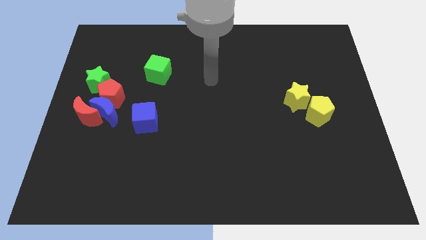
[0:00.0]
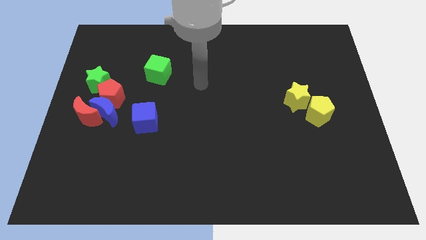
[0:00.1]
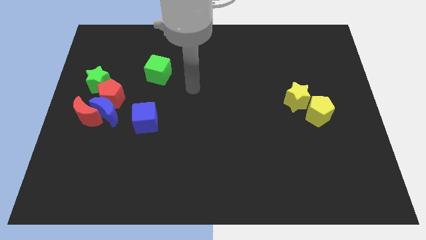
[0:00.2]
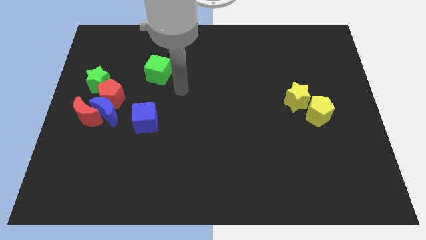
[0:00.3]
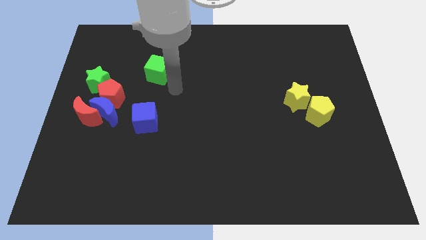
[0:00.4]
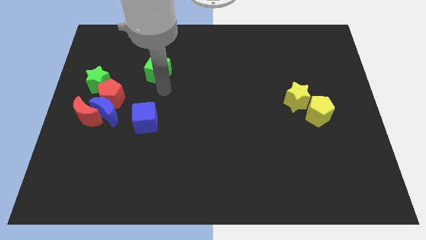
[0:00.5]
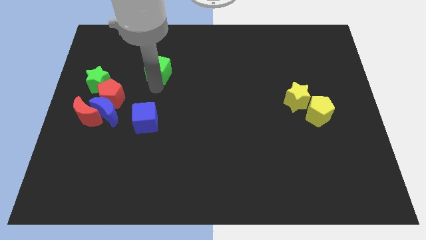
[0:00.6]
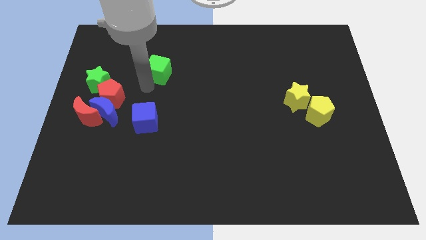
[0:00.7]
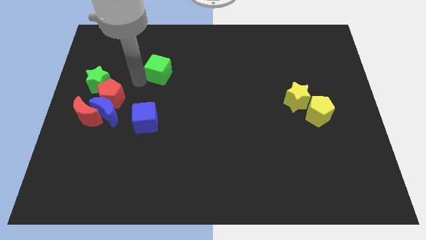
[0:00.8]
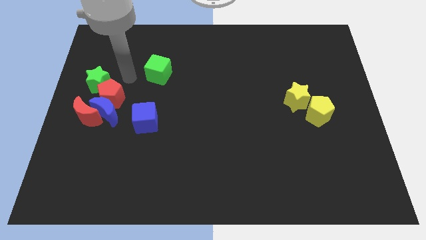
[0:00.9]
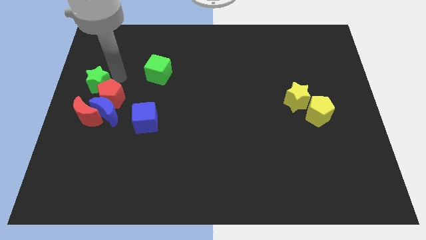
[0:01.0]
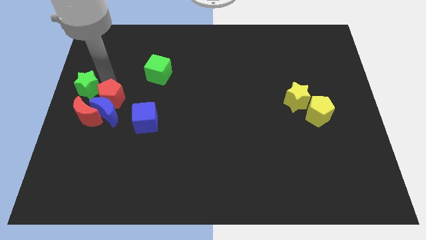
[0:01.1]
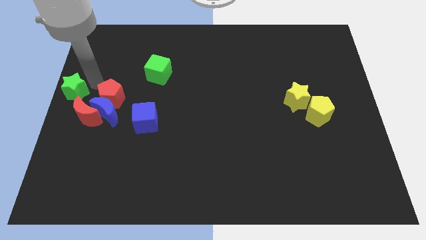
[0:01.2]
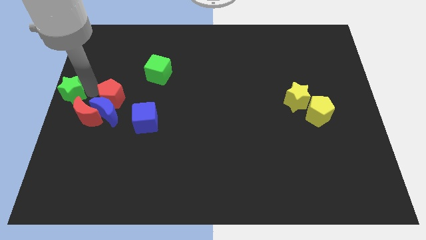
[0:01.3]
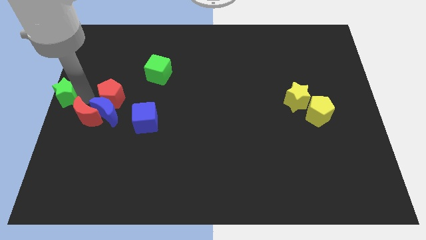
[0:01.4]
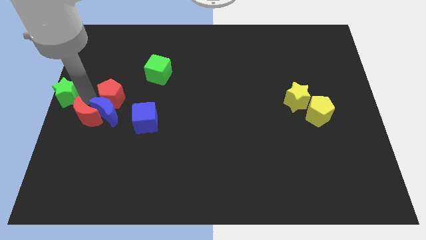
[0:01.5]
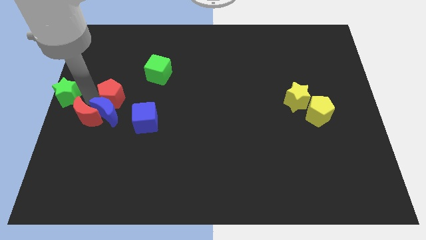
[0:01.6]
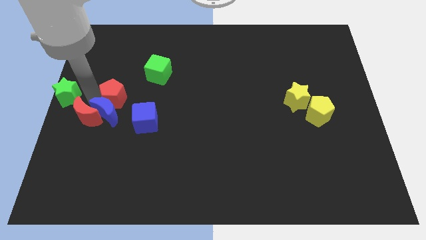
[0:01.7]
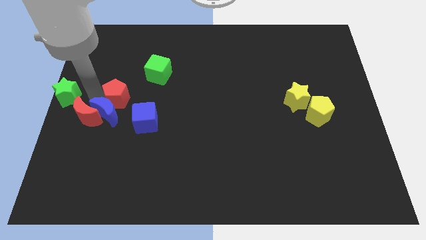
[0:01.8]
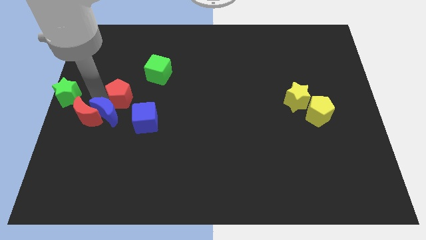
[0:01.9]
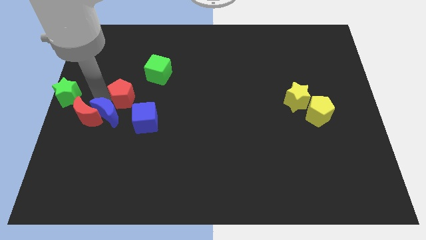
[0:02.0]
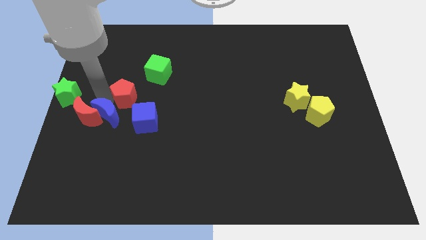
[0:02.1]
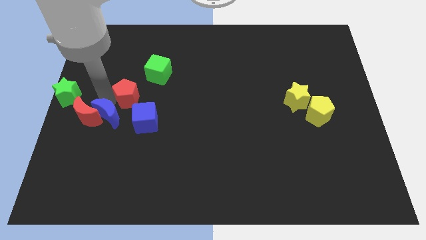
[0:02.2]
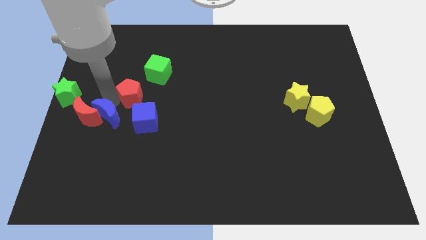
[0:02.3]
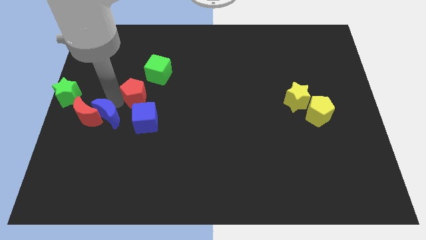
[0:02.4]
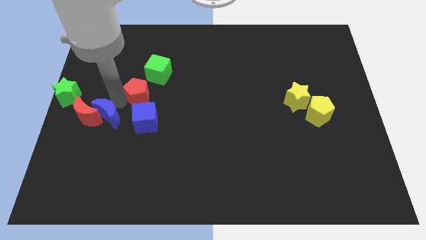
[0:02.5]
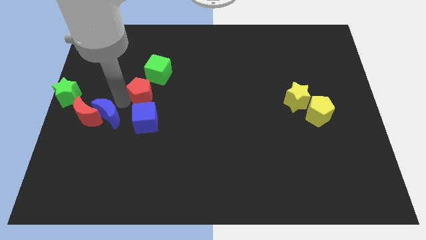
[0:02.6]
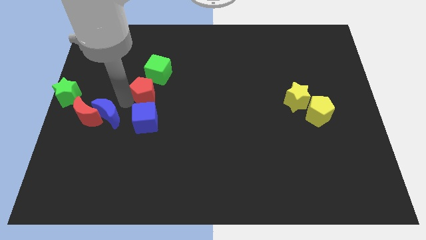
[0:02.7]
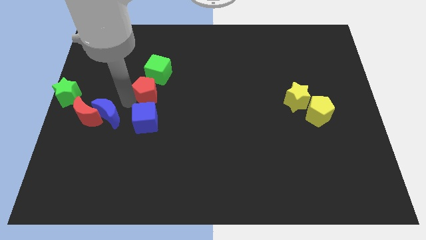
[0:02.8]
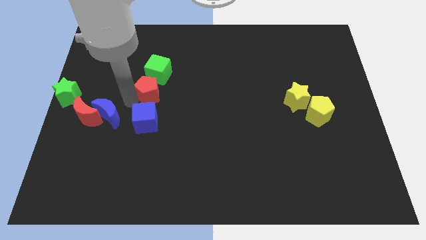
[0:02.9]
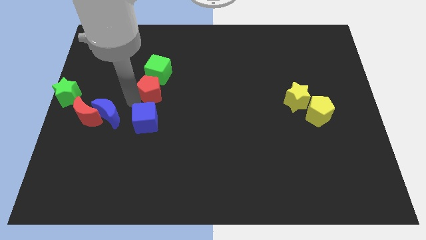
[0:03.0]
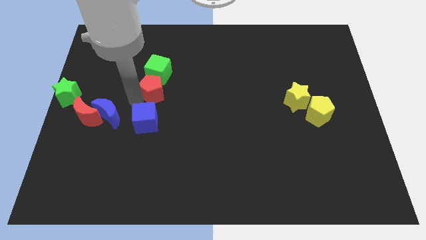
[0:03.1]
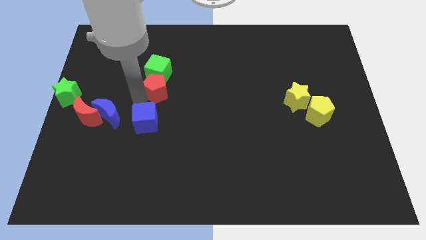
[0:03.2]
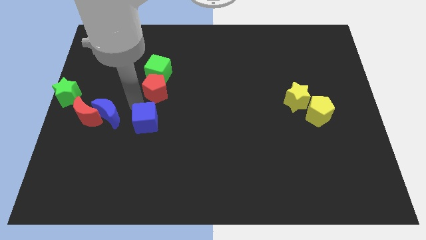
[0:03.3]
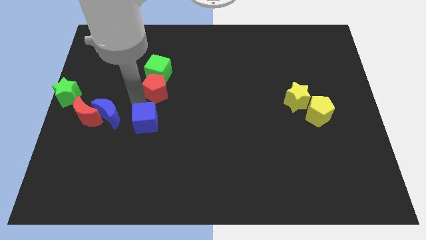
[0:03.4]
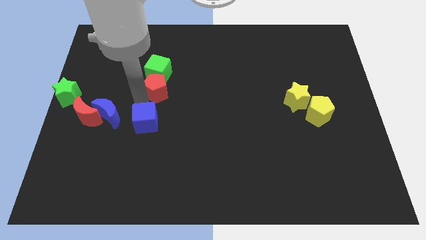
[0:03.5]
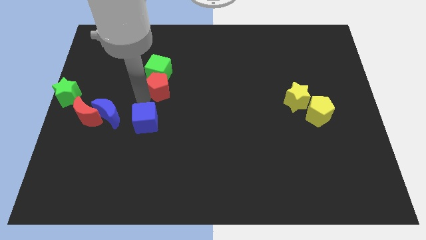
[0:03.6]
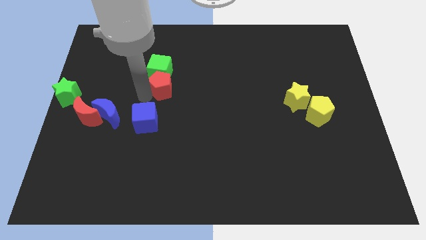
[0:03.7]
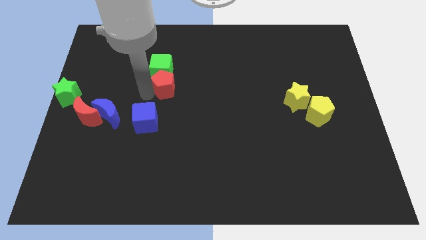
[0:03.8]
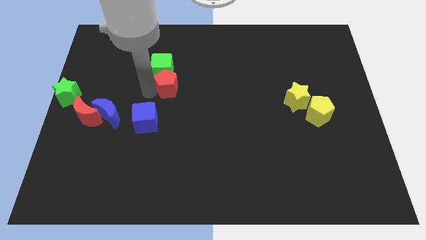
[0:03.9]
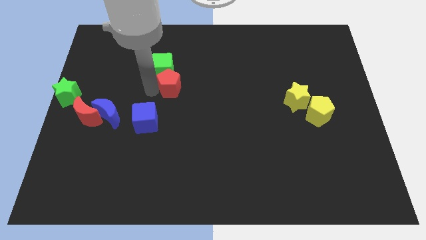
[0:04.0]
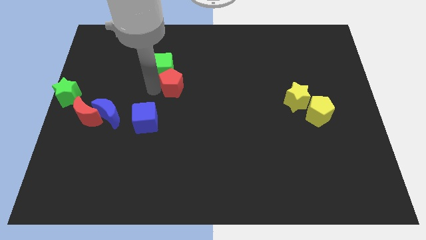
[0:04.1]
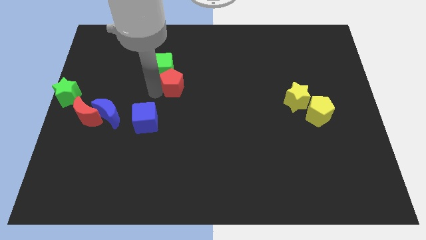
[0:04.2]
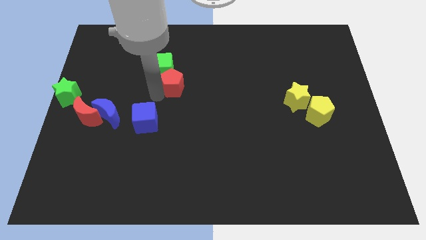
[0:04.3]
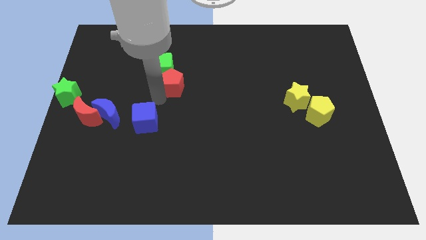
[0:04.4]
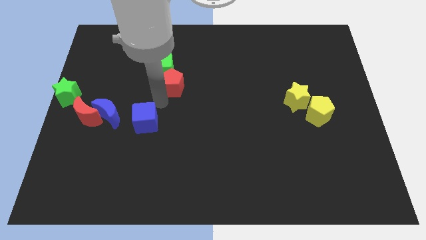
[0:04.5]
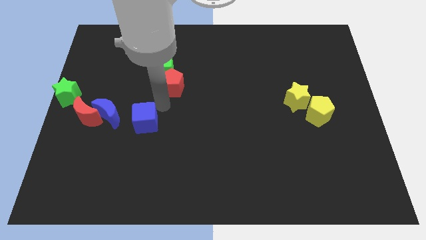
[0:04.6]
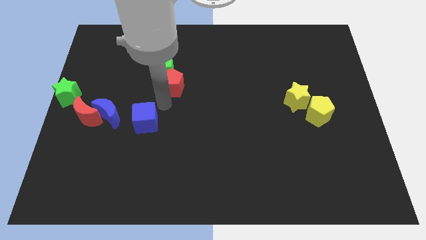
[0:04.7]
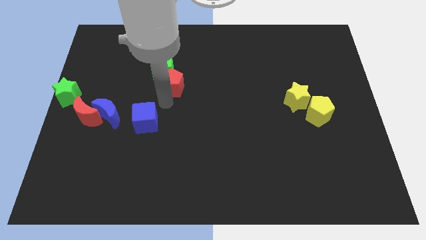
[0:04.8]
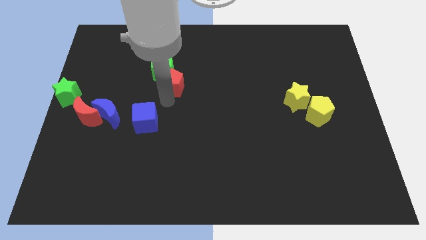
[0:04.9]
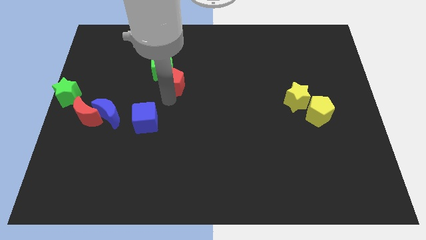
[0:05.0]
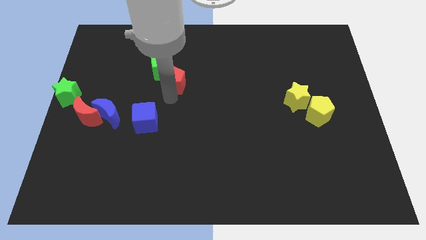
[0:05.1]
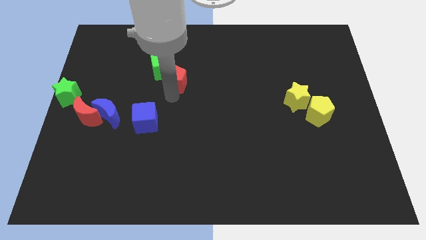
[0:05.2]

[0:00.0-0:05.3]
slide the red pentagon to the right side of the green cube

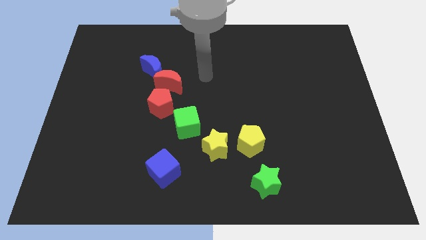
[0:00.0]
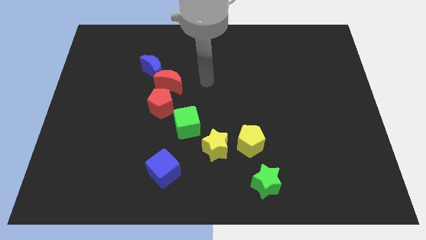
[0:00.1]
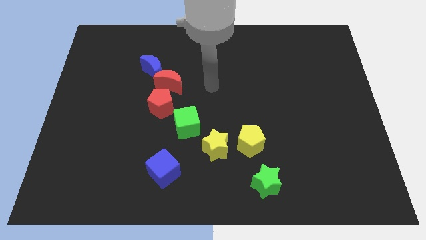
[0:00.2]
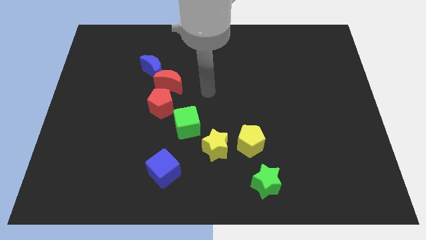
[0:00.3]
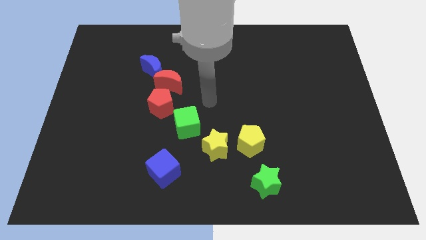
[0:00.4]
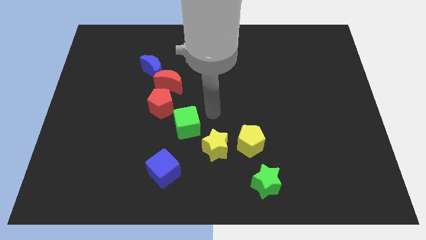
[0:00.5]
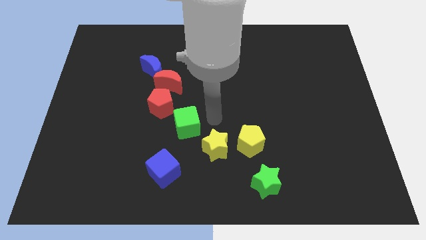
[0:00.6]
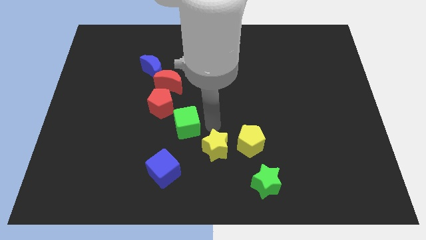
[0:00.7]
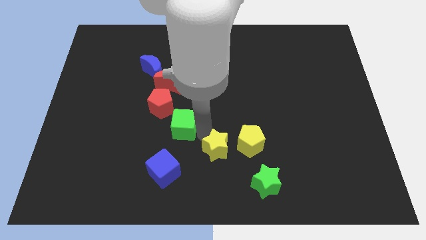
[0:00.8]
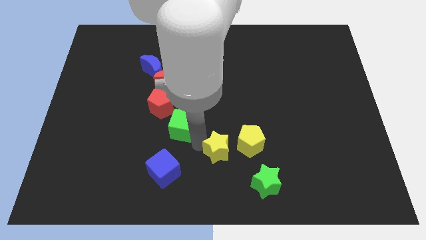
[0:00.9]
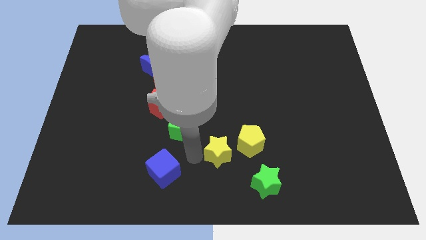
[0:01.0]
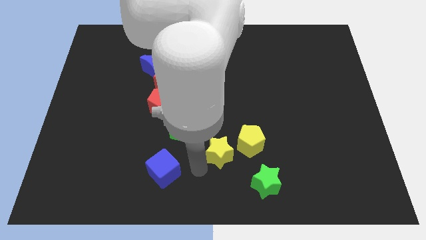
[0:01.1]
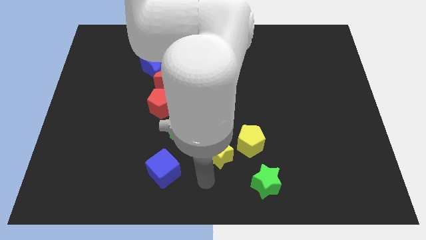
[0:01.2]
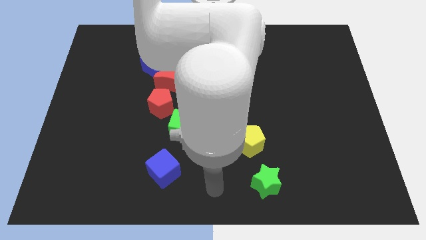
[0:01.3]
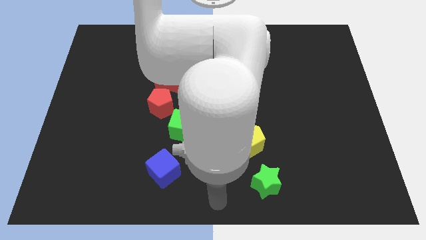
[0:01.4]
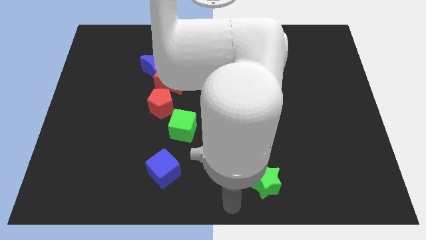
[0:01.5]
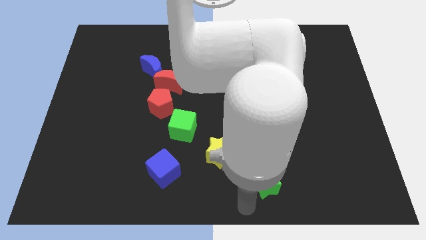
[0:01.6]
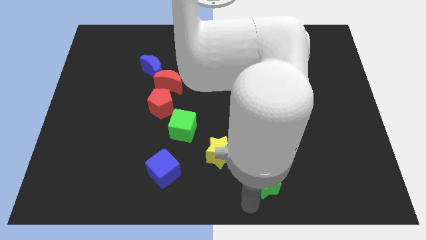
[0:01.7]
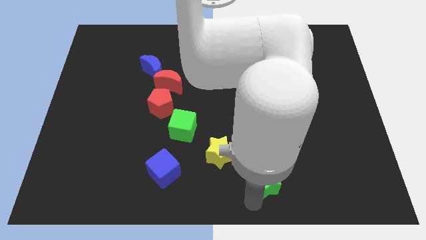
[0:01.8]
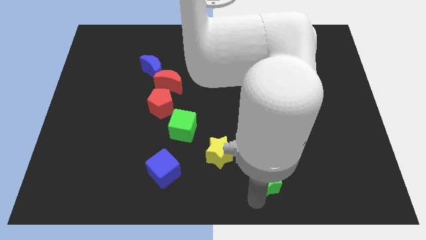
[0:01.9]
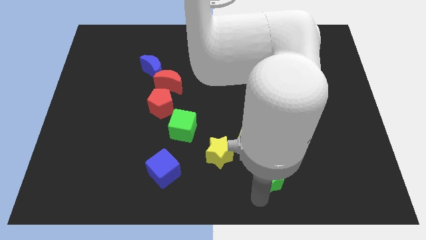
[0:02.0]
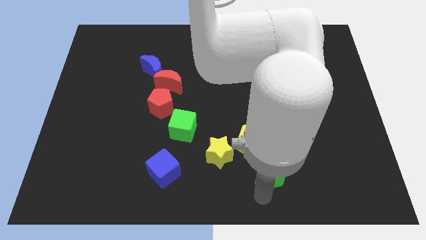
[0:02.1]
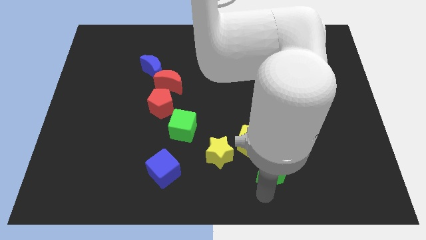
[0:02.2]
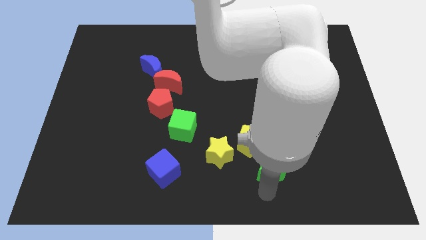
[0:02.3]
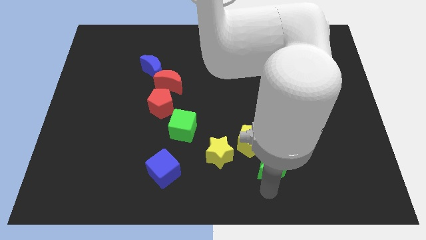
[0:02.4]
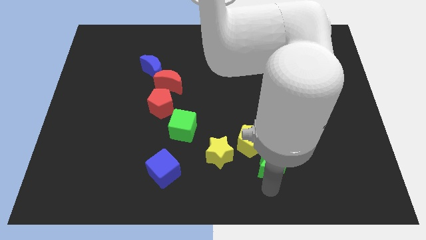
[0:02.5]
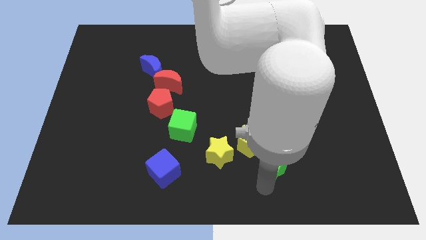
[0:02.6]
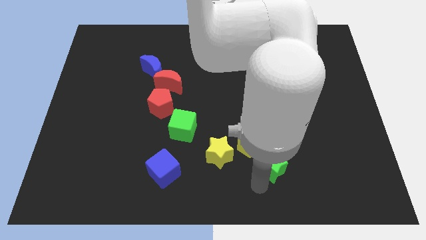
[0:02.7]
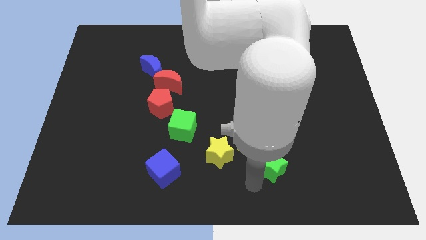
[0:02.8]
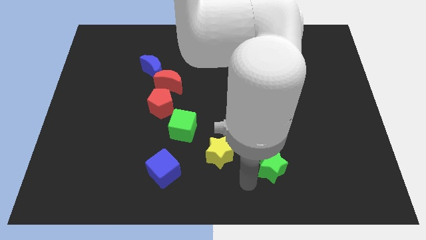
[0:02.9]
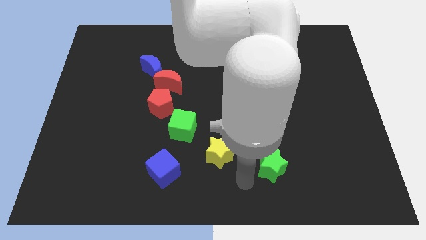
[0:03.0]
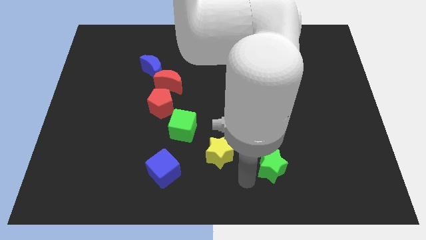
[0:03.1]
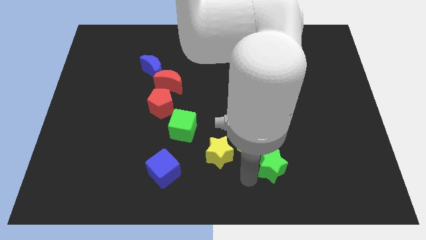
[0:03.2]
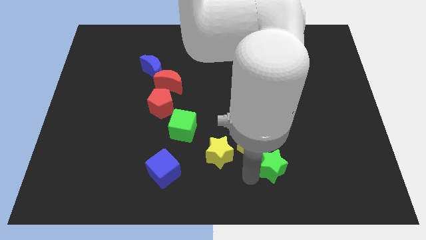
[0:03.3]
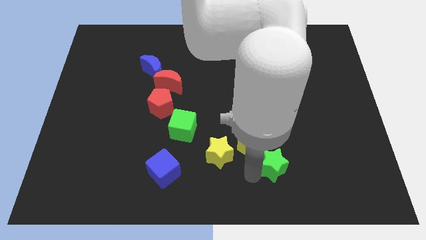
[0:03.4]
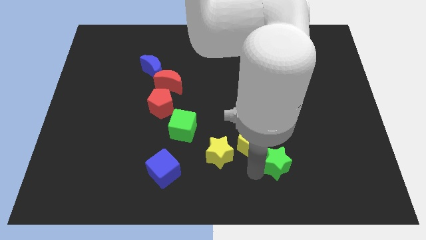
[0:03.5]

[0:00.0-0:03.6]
slide the green star just right of the yellow pentagon
